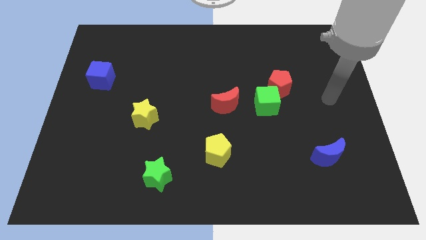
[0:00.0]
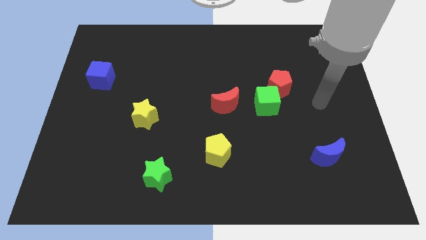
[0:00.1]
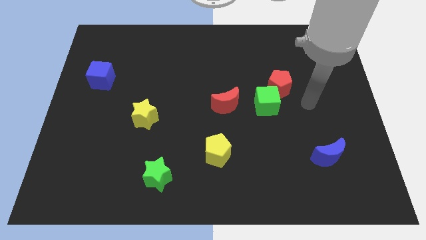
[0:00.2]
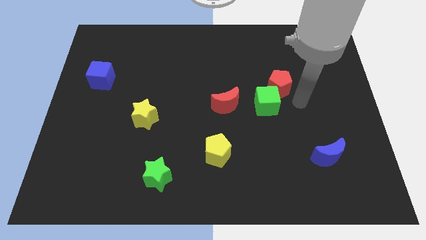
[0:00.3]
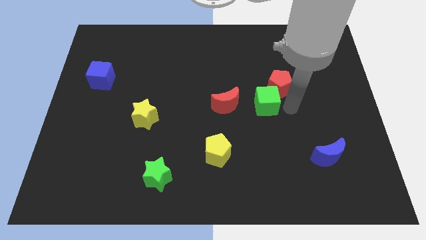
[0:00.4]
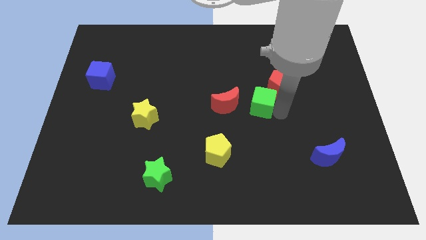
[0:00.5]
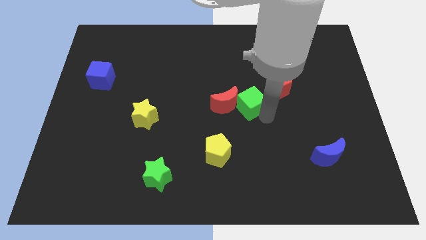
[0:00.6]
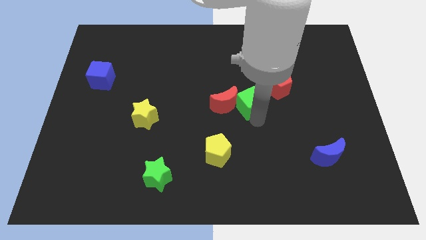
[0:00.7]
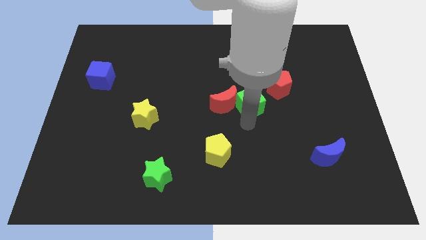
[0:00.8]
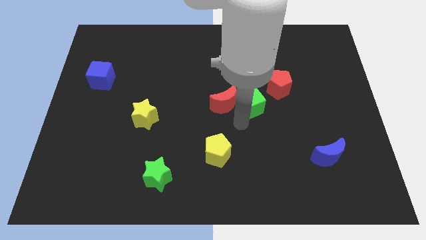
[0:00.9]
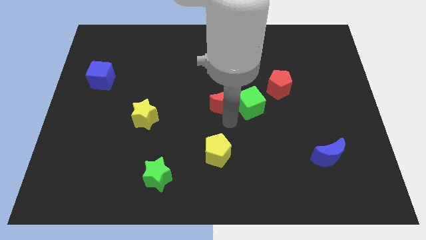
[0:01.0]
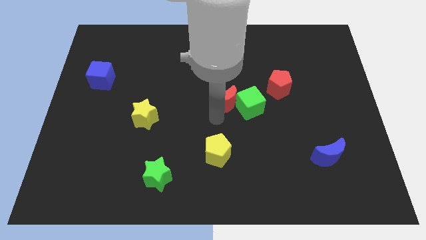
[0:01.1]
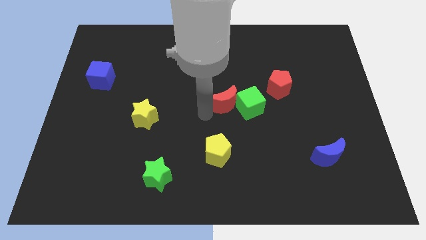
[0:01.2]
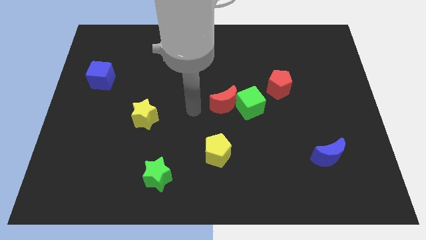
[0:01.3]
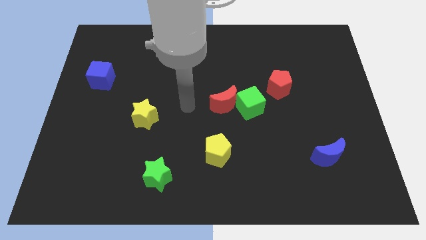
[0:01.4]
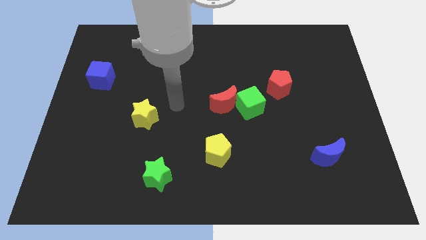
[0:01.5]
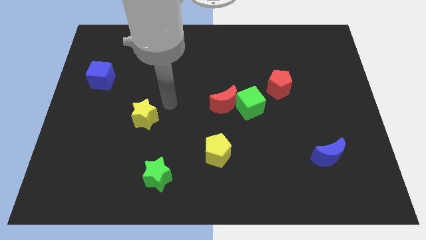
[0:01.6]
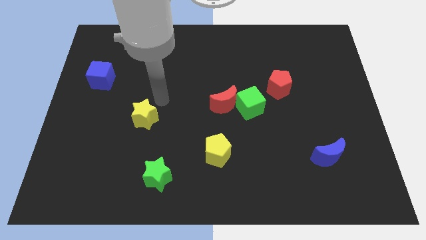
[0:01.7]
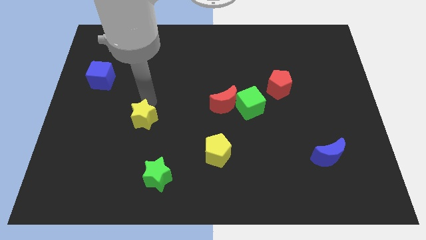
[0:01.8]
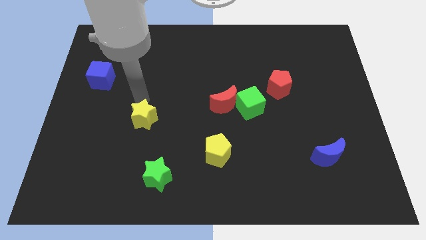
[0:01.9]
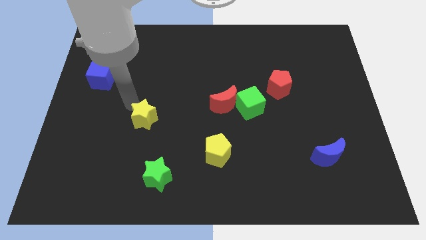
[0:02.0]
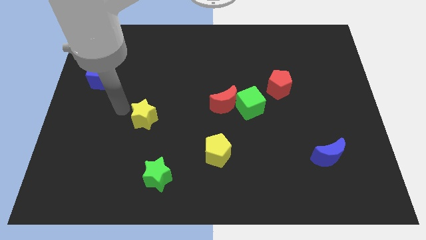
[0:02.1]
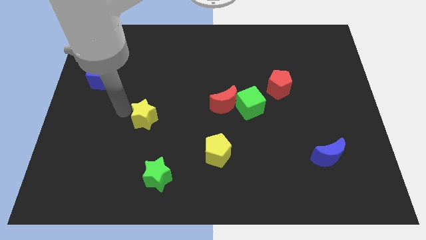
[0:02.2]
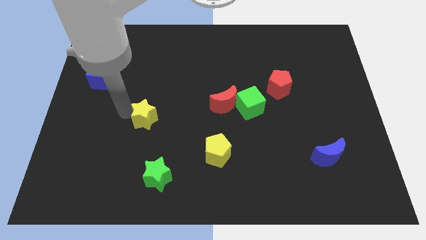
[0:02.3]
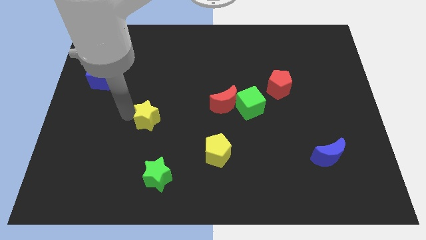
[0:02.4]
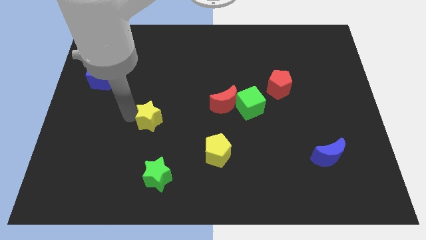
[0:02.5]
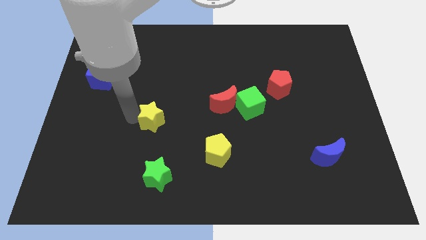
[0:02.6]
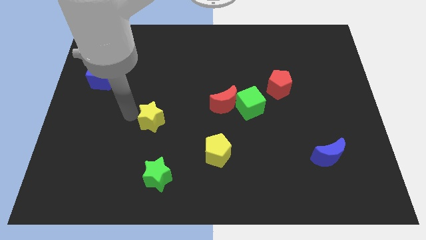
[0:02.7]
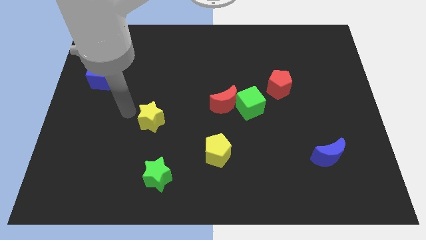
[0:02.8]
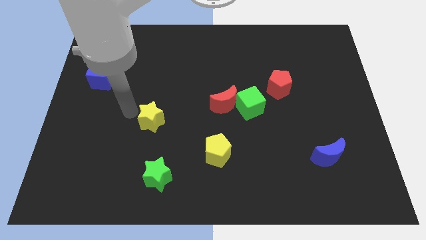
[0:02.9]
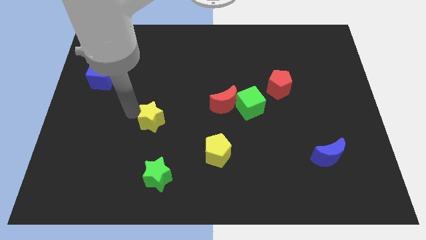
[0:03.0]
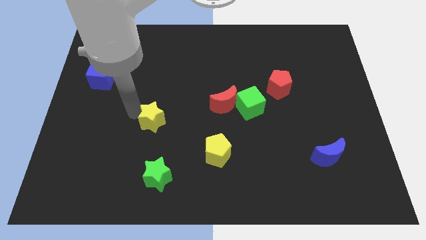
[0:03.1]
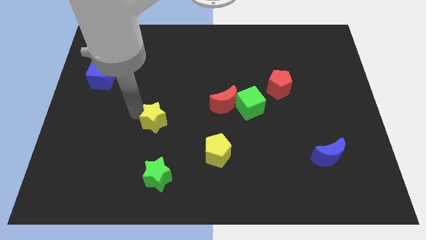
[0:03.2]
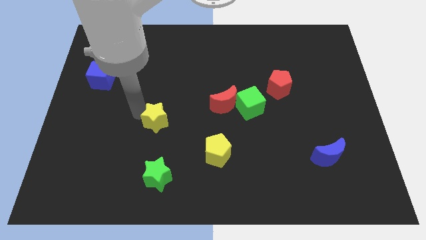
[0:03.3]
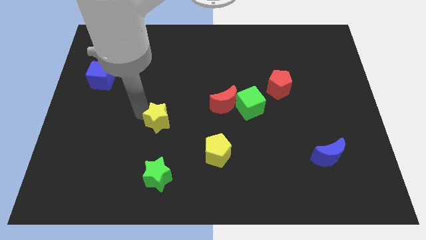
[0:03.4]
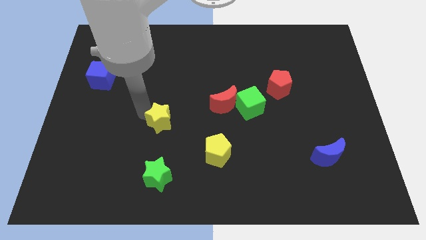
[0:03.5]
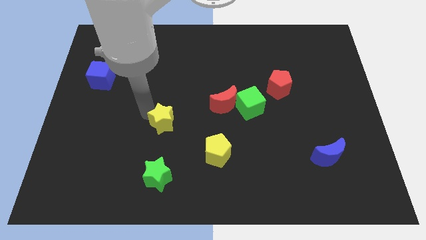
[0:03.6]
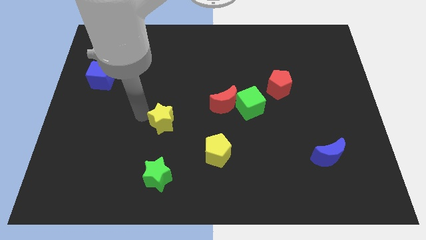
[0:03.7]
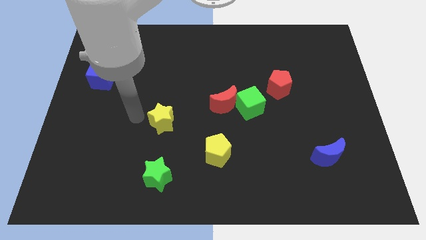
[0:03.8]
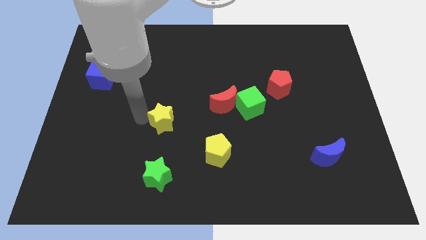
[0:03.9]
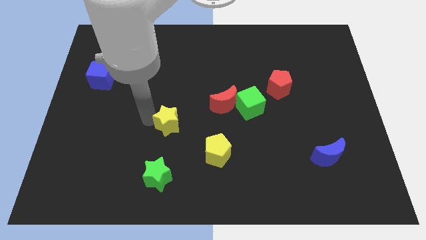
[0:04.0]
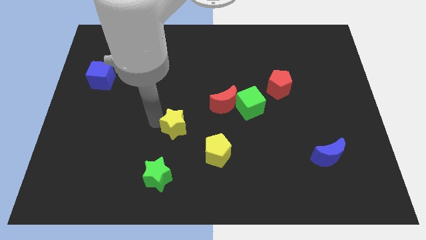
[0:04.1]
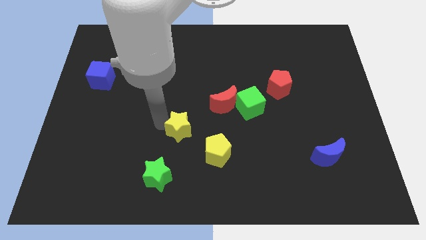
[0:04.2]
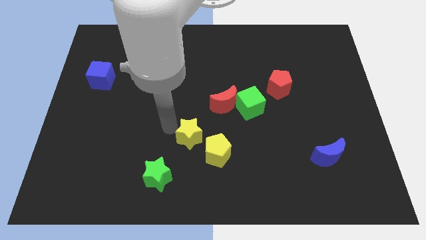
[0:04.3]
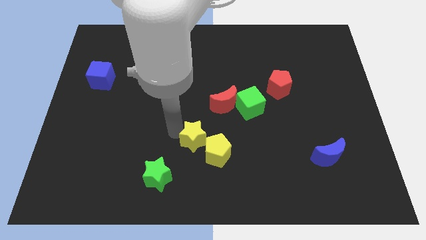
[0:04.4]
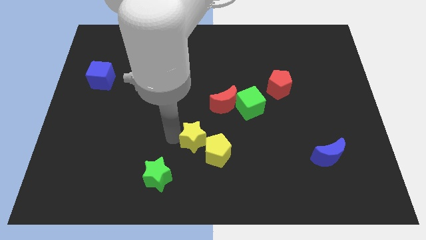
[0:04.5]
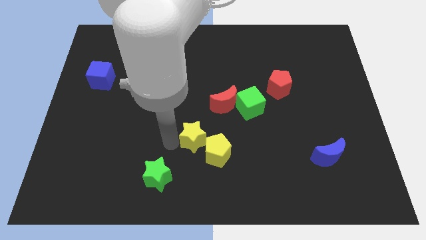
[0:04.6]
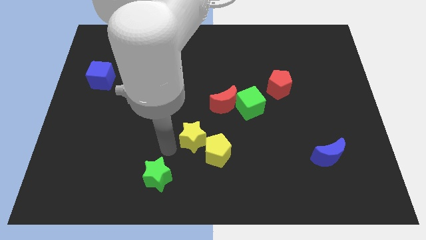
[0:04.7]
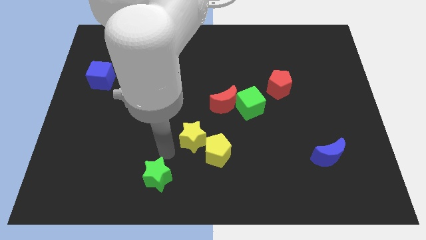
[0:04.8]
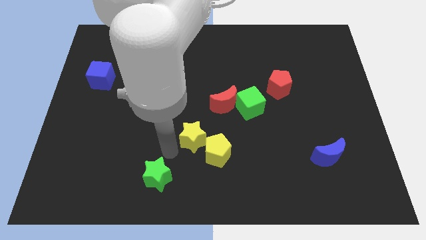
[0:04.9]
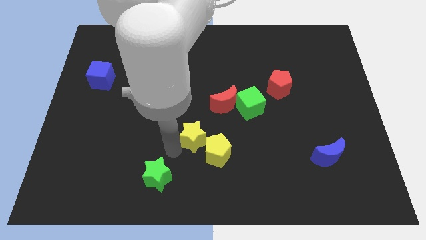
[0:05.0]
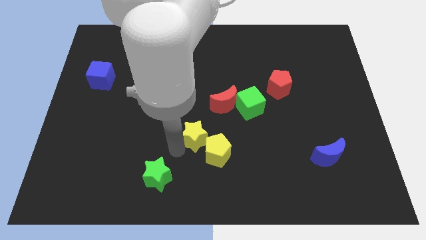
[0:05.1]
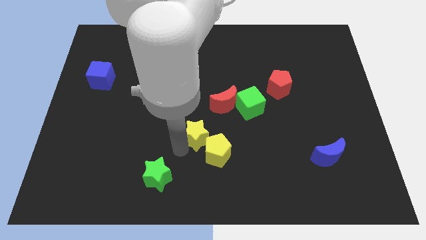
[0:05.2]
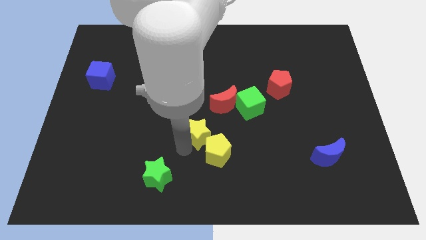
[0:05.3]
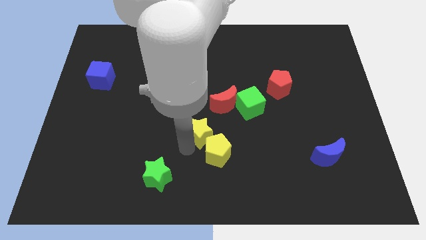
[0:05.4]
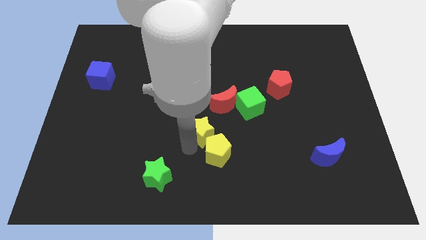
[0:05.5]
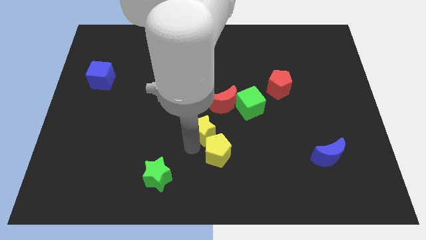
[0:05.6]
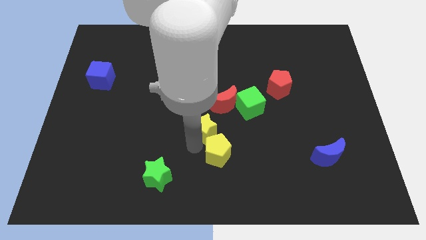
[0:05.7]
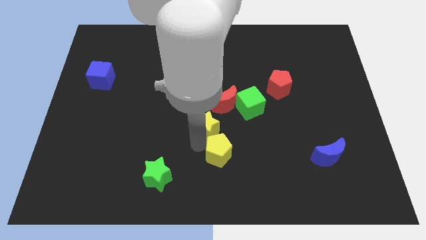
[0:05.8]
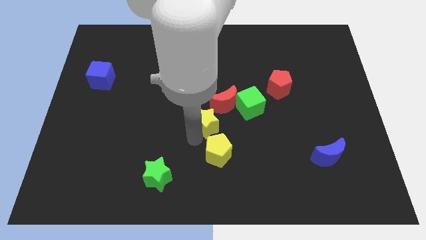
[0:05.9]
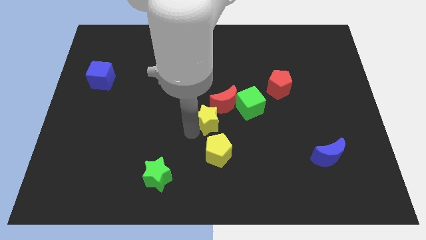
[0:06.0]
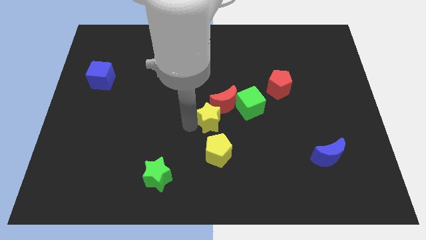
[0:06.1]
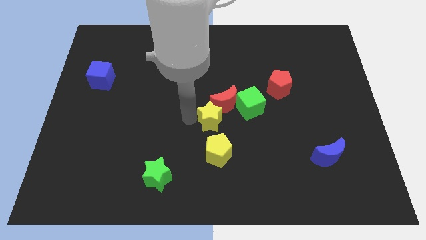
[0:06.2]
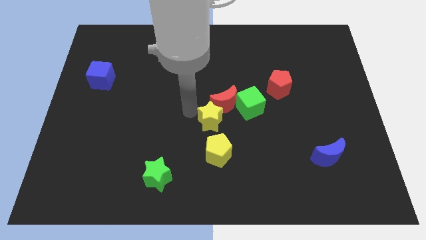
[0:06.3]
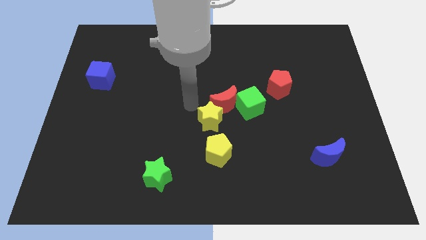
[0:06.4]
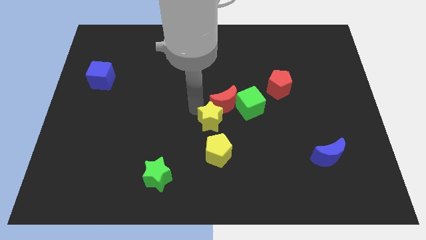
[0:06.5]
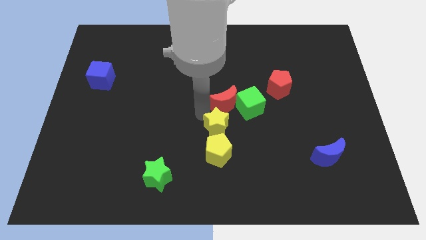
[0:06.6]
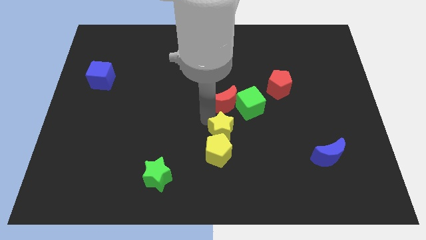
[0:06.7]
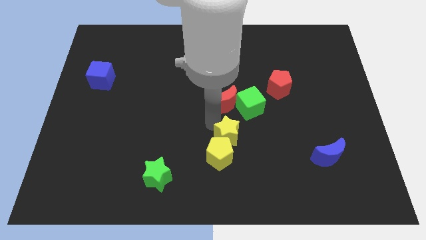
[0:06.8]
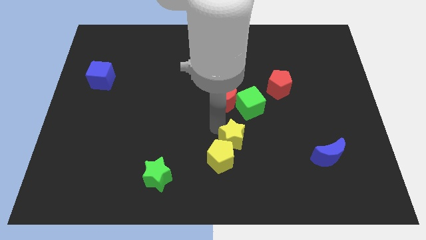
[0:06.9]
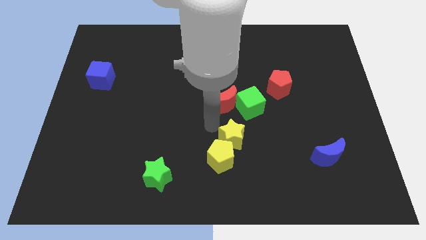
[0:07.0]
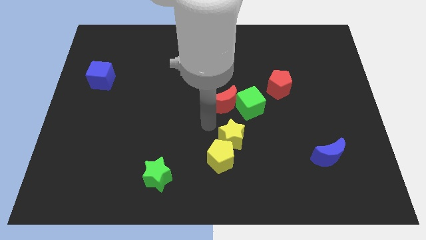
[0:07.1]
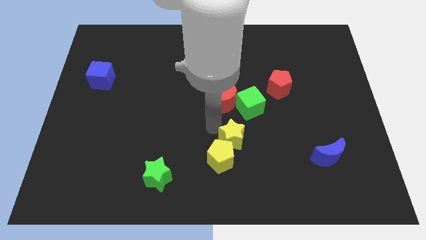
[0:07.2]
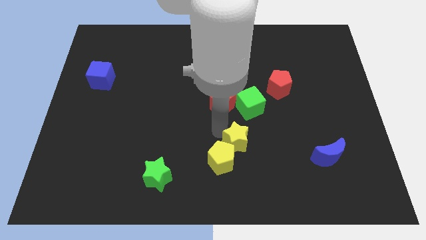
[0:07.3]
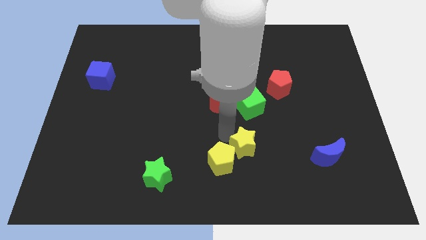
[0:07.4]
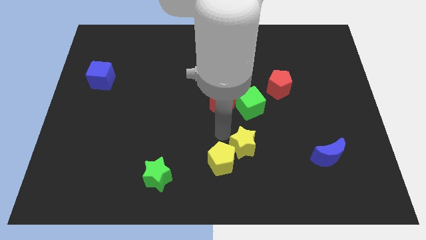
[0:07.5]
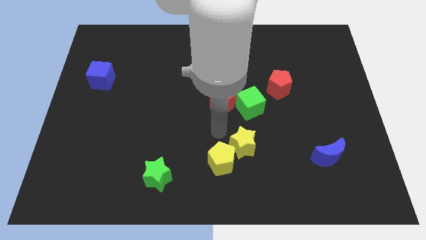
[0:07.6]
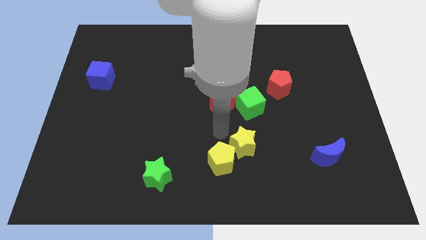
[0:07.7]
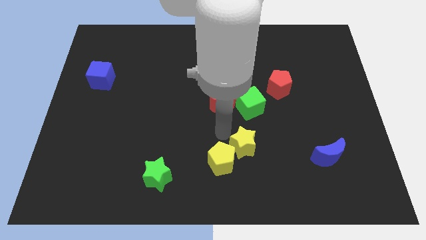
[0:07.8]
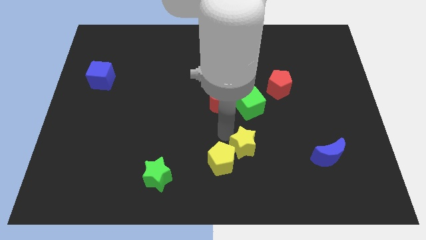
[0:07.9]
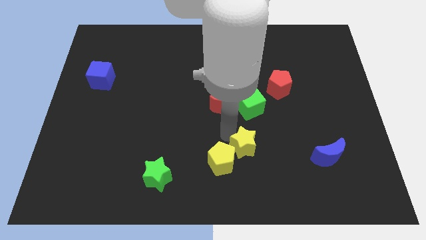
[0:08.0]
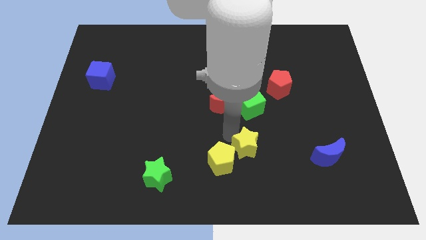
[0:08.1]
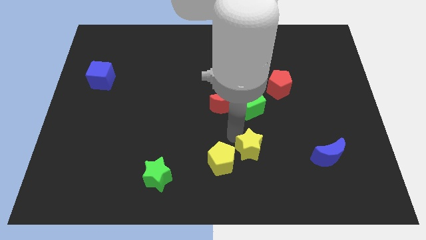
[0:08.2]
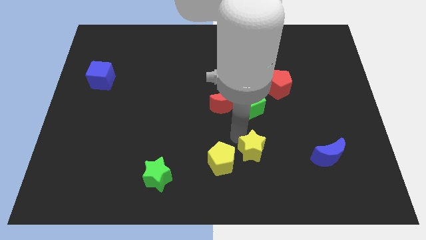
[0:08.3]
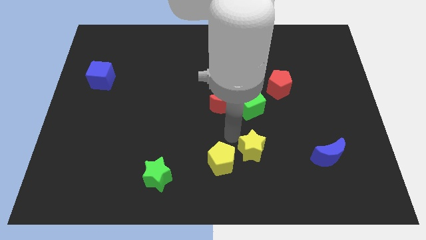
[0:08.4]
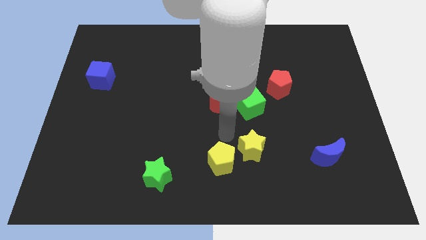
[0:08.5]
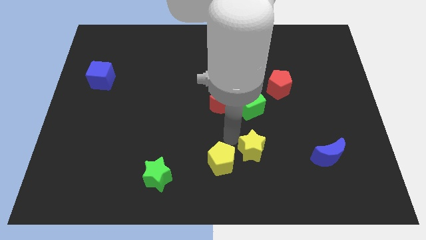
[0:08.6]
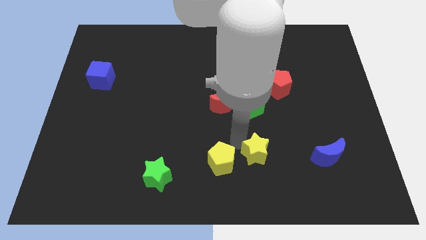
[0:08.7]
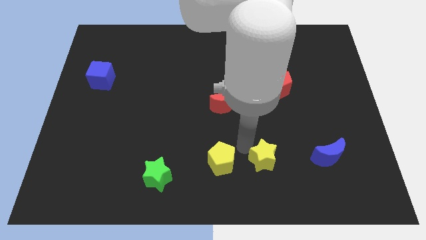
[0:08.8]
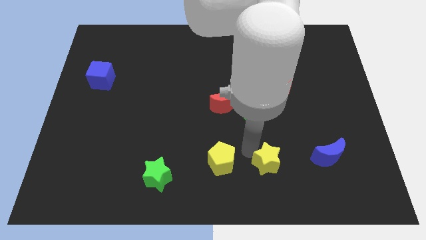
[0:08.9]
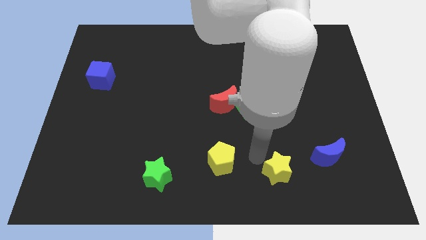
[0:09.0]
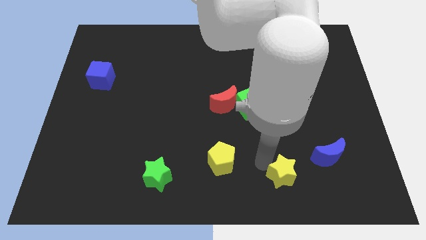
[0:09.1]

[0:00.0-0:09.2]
put the yellow star to the bottom left side of the blue moon
